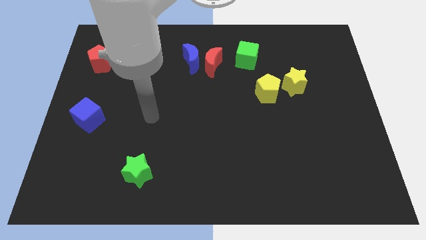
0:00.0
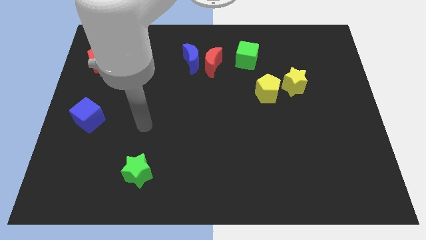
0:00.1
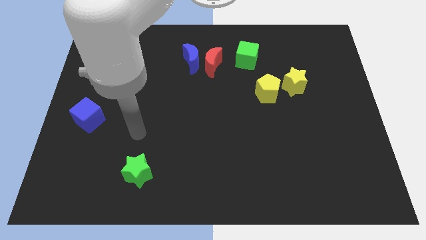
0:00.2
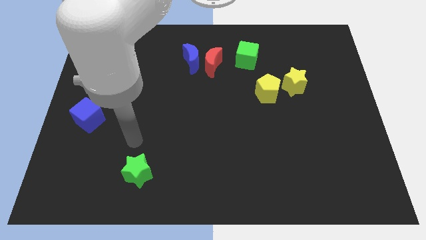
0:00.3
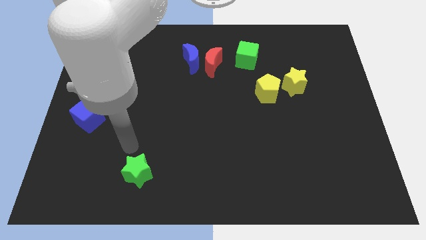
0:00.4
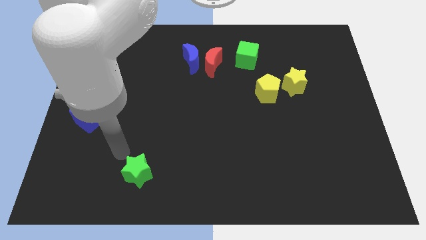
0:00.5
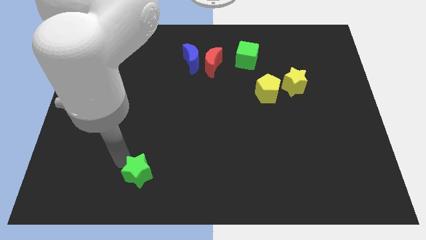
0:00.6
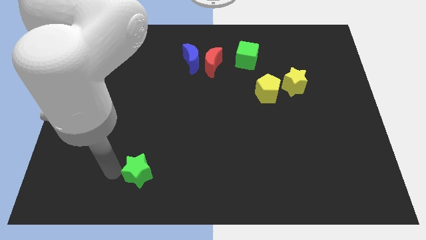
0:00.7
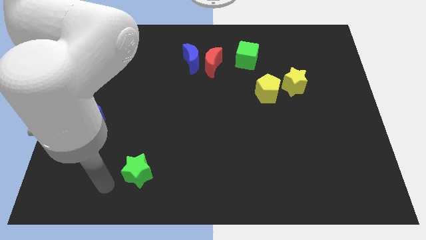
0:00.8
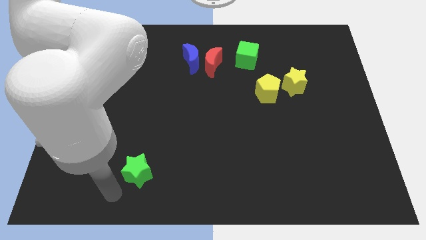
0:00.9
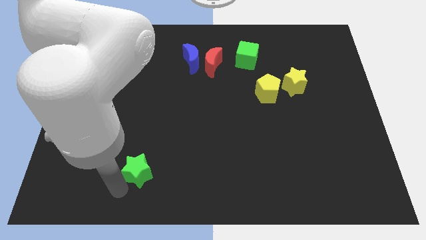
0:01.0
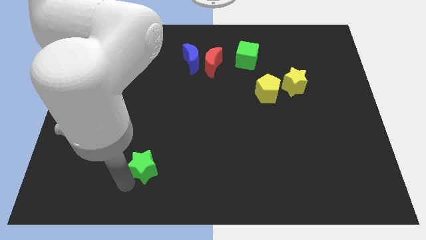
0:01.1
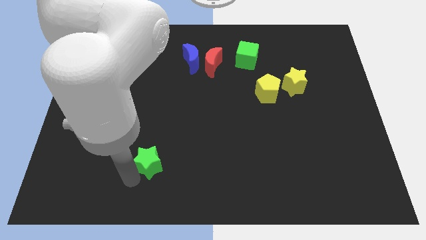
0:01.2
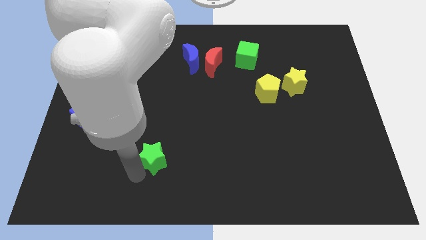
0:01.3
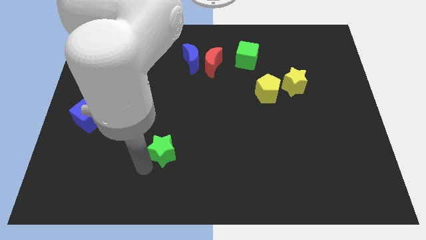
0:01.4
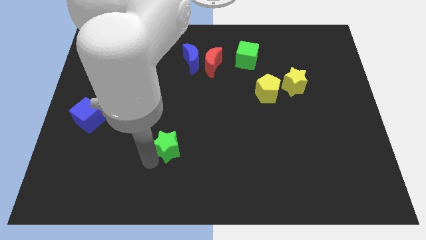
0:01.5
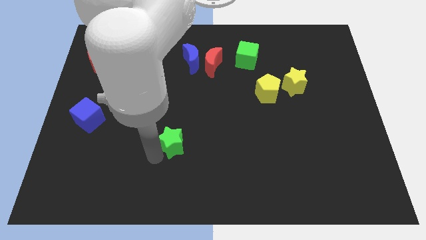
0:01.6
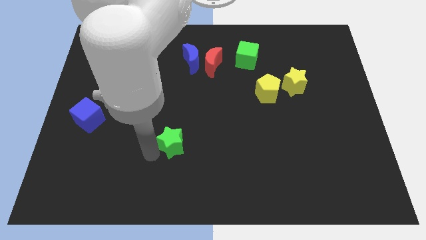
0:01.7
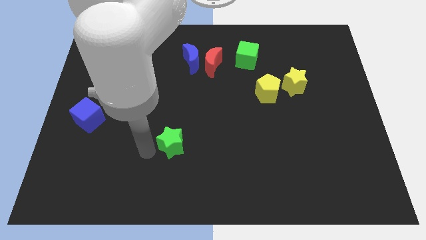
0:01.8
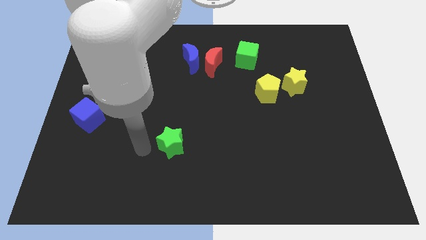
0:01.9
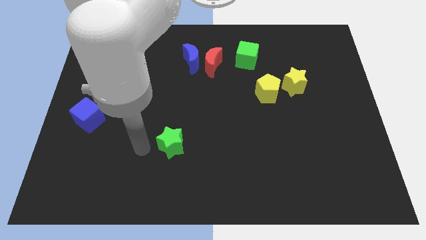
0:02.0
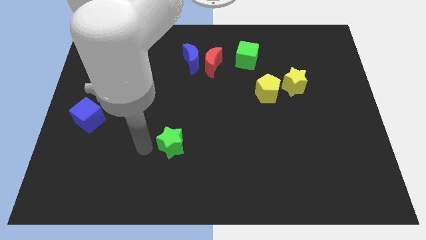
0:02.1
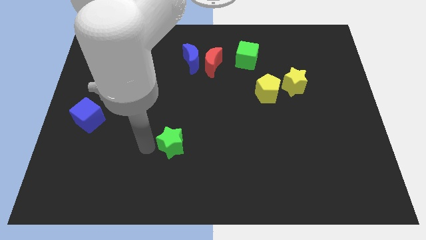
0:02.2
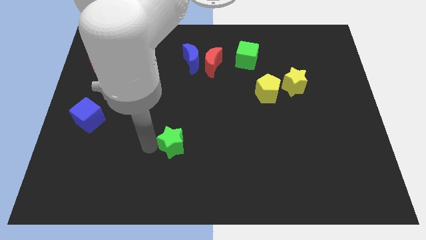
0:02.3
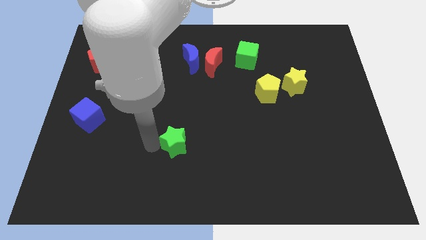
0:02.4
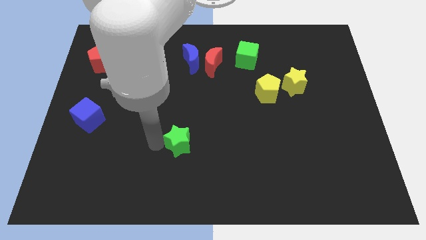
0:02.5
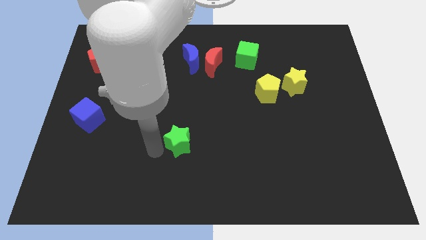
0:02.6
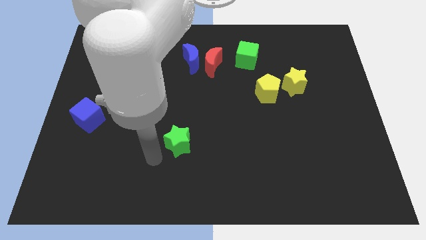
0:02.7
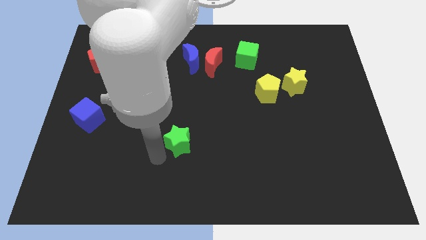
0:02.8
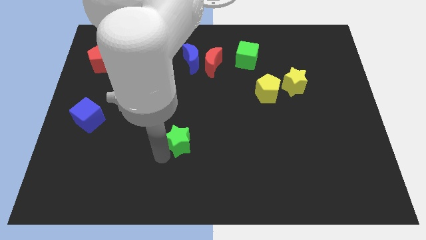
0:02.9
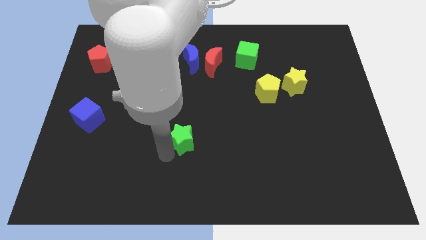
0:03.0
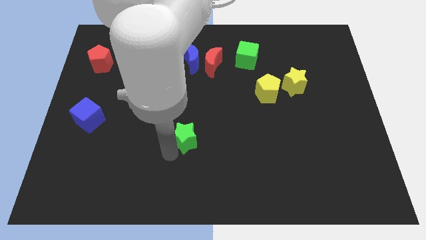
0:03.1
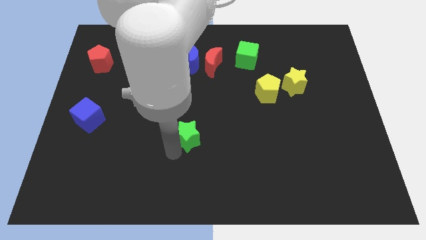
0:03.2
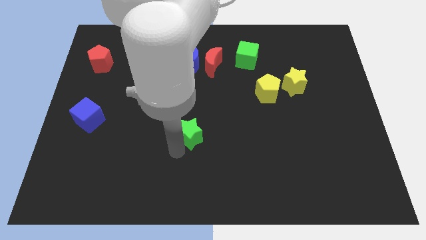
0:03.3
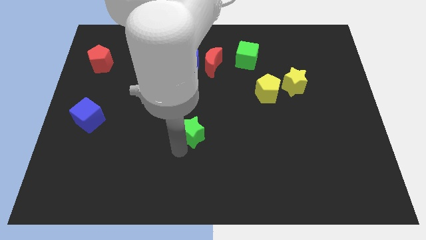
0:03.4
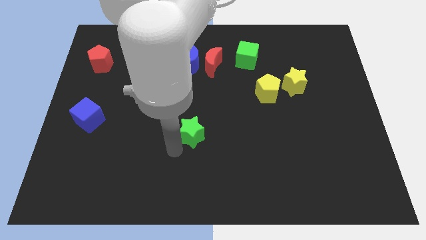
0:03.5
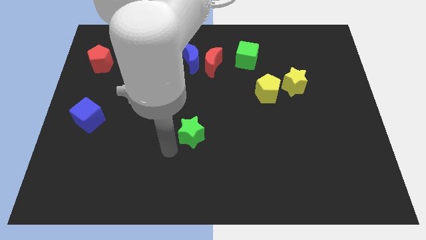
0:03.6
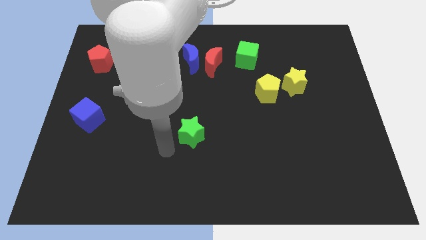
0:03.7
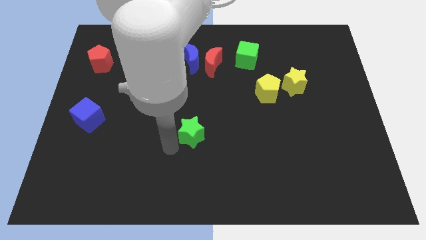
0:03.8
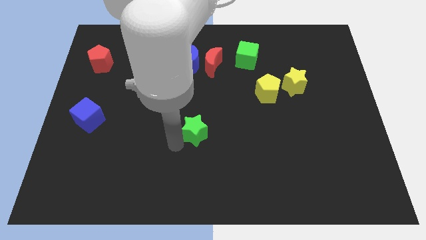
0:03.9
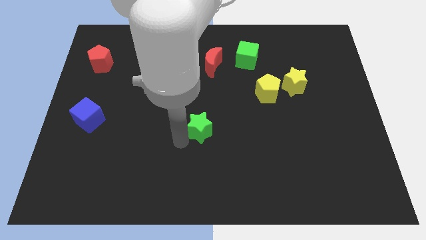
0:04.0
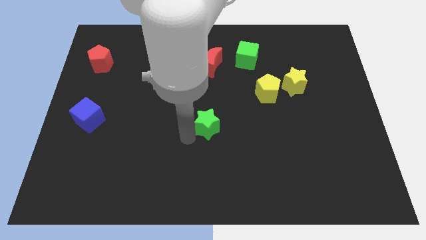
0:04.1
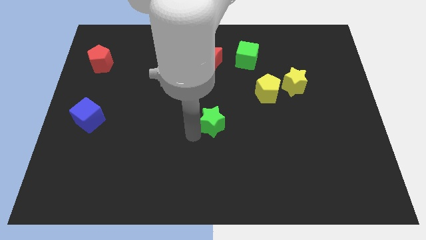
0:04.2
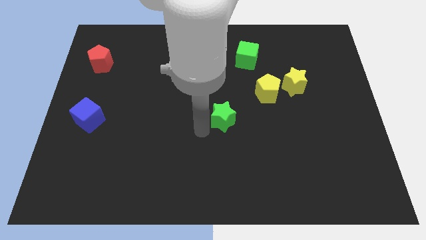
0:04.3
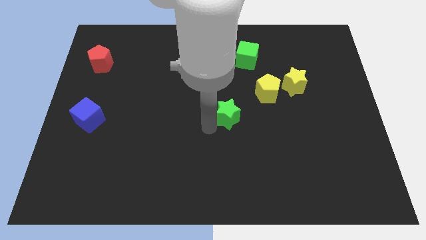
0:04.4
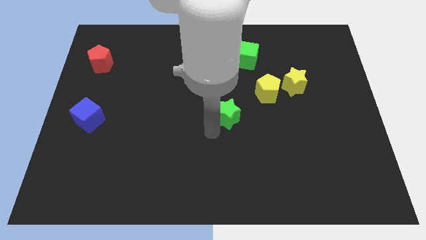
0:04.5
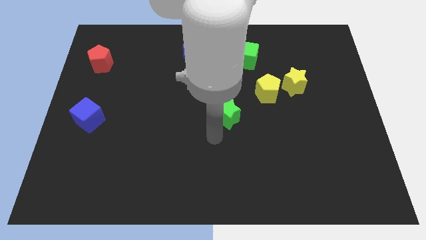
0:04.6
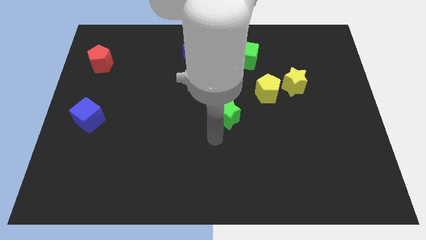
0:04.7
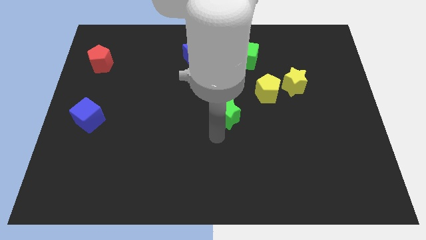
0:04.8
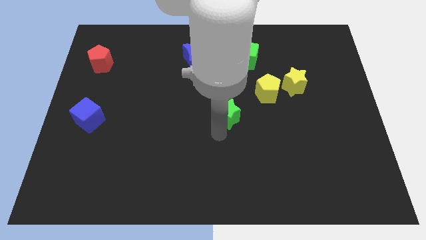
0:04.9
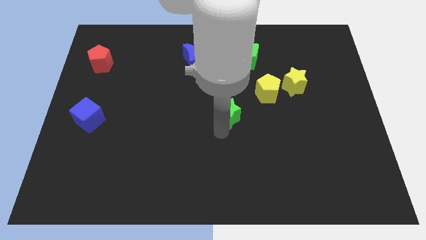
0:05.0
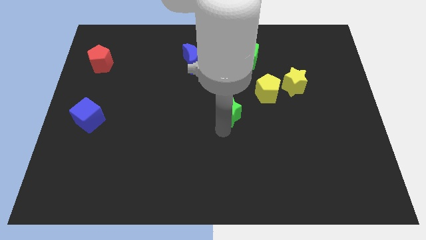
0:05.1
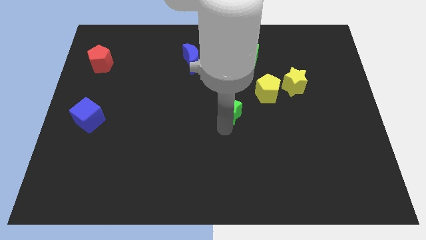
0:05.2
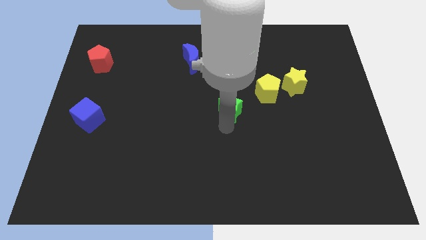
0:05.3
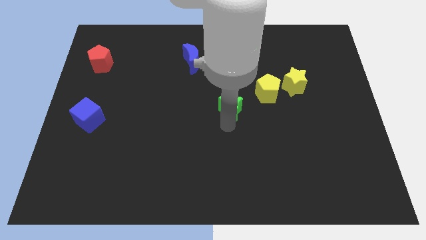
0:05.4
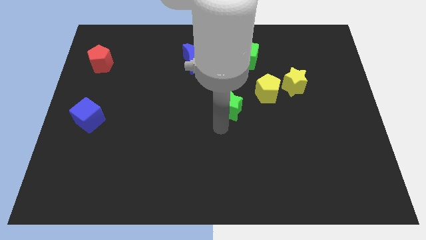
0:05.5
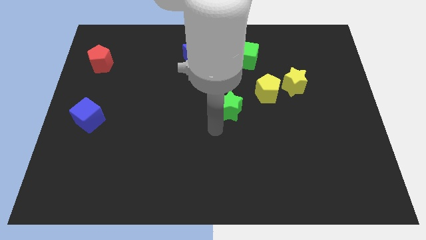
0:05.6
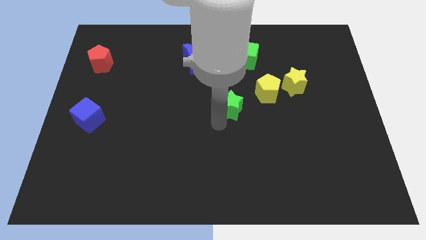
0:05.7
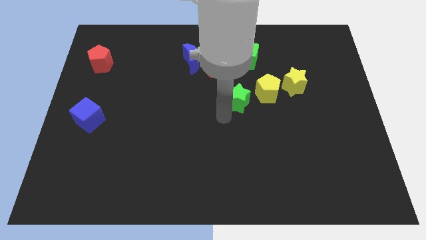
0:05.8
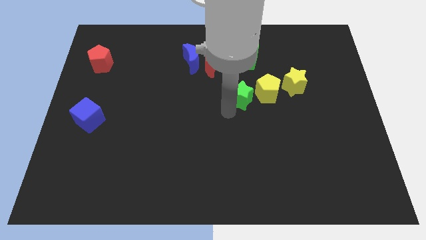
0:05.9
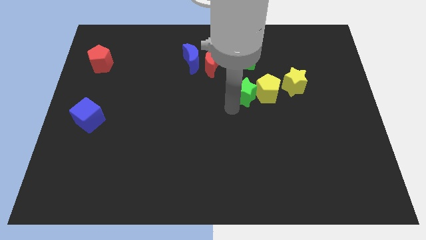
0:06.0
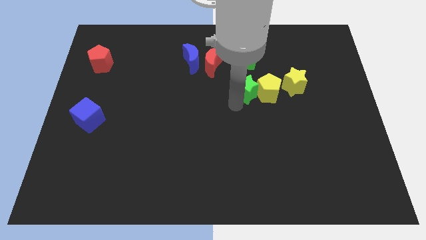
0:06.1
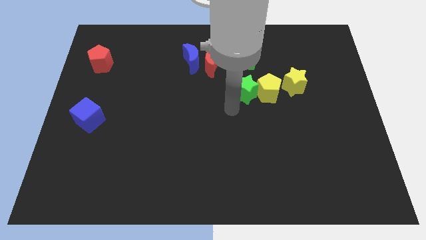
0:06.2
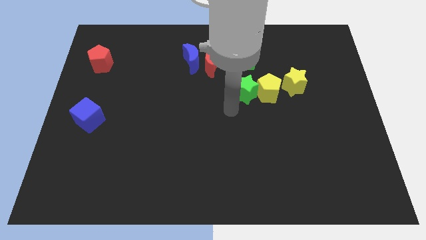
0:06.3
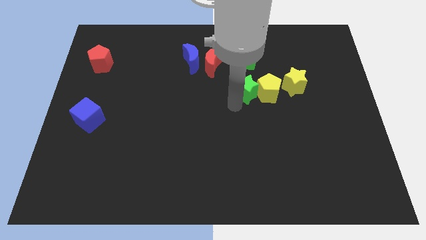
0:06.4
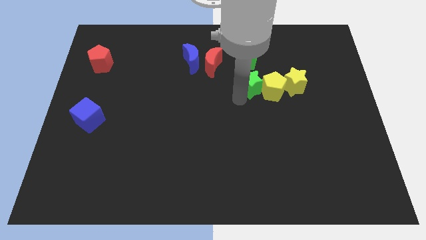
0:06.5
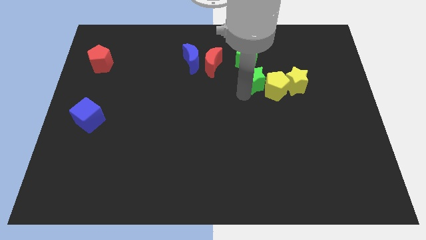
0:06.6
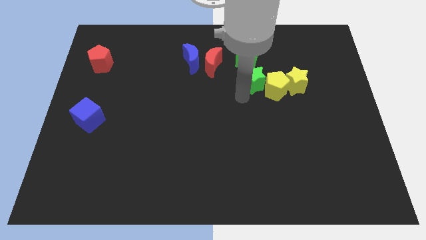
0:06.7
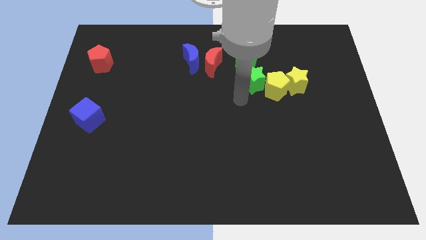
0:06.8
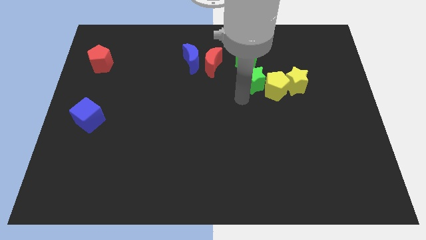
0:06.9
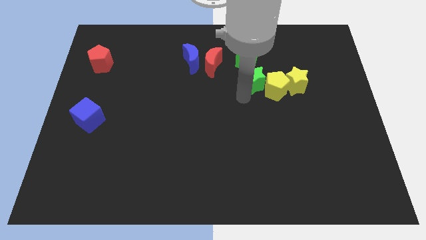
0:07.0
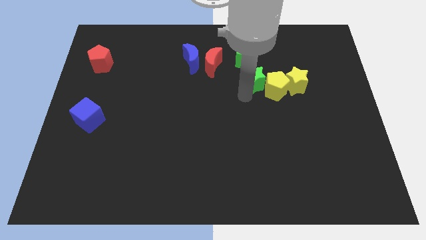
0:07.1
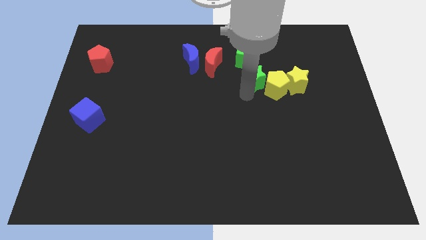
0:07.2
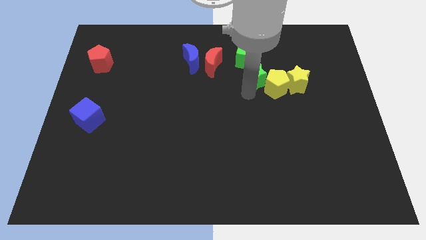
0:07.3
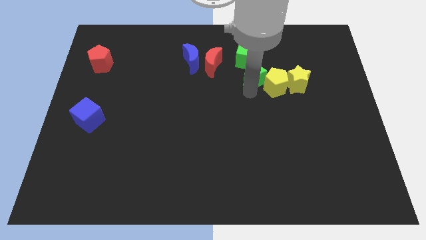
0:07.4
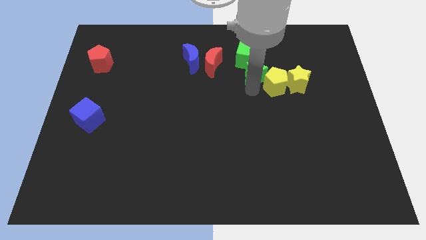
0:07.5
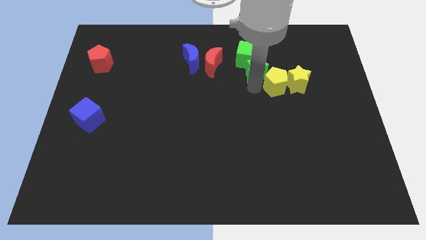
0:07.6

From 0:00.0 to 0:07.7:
move the green star above the yellow pentagon
